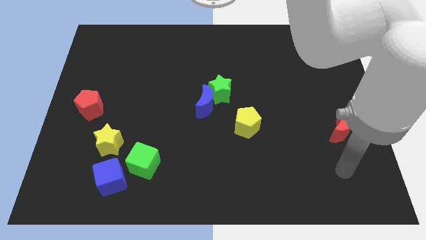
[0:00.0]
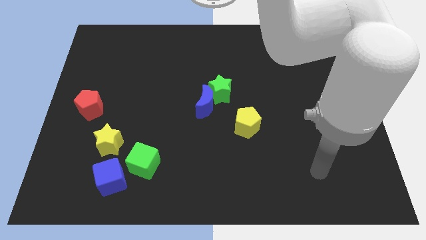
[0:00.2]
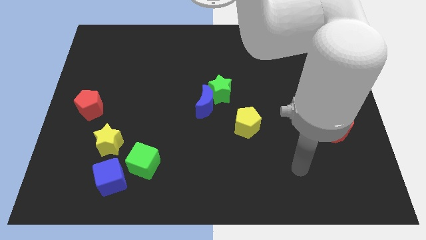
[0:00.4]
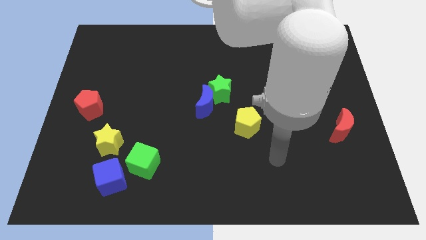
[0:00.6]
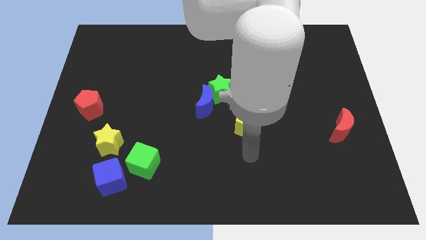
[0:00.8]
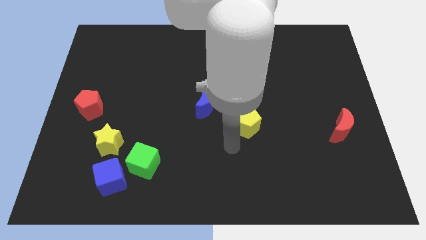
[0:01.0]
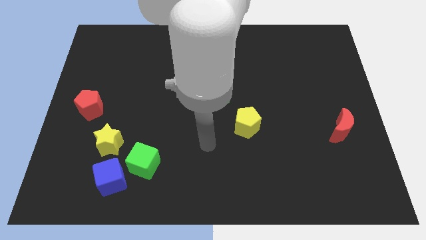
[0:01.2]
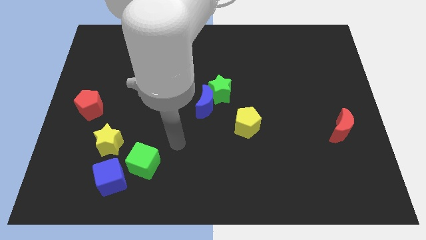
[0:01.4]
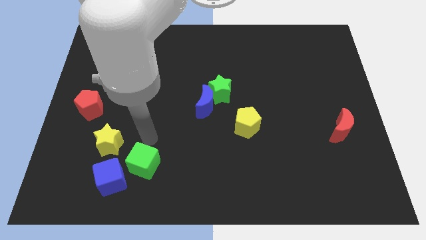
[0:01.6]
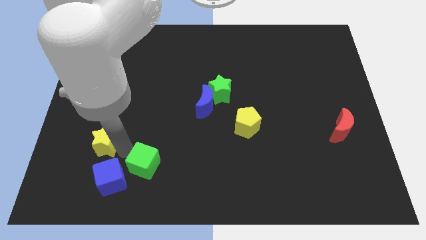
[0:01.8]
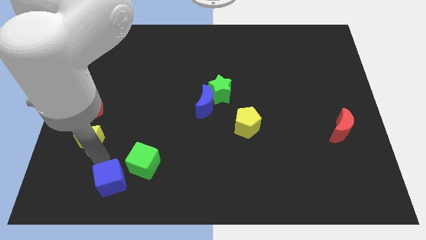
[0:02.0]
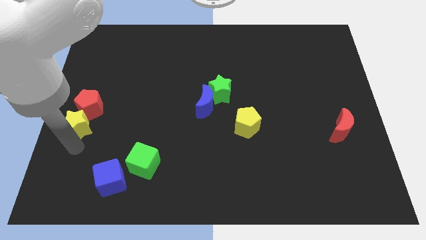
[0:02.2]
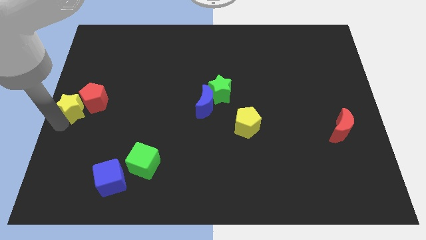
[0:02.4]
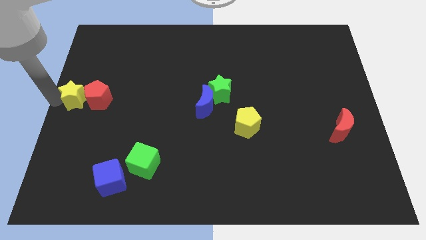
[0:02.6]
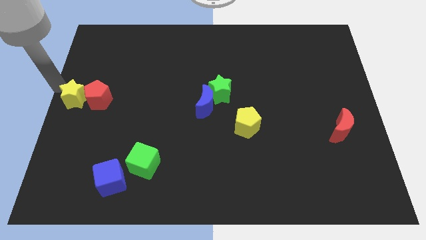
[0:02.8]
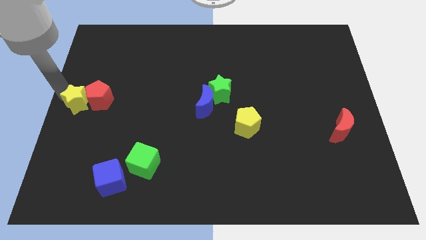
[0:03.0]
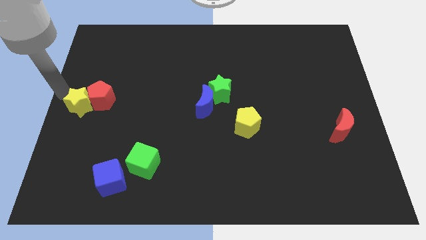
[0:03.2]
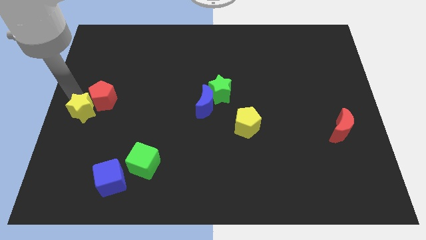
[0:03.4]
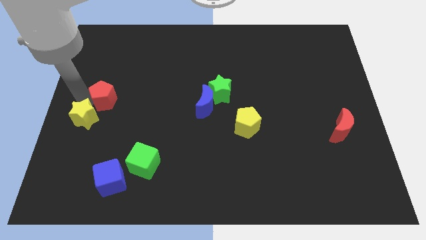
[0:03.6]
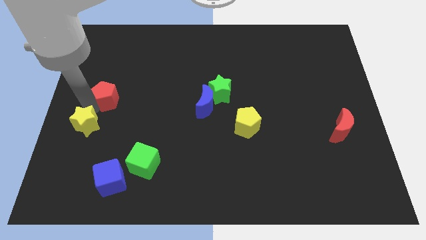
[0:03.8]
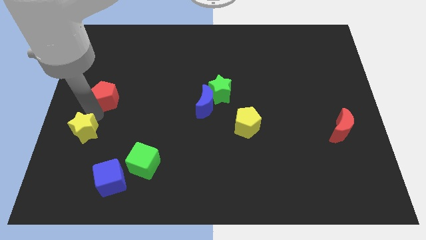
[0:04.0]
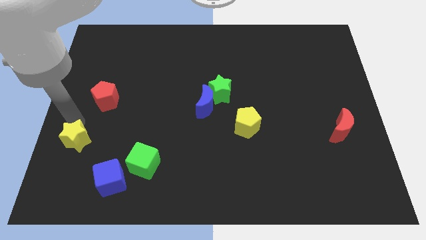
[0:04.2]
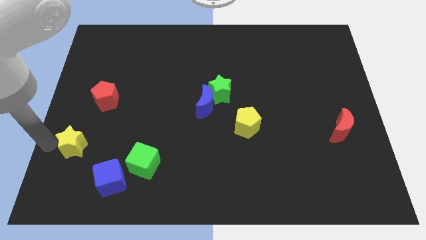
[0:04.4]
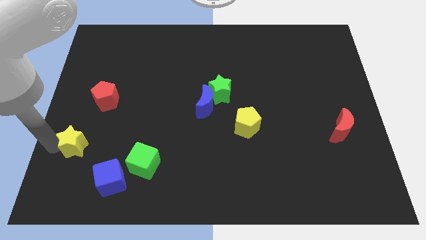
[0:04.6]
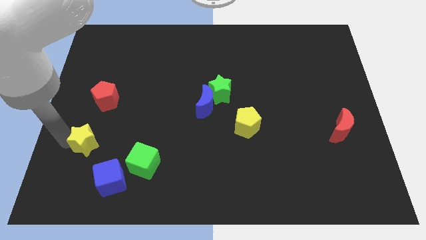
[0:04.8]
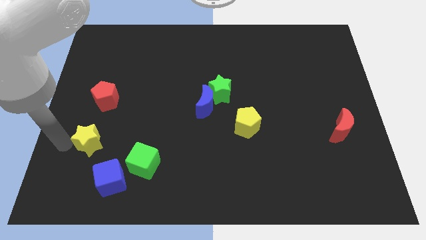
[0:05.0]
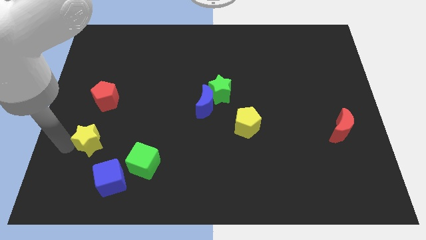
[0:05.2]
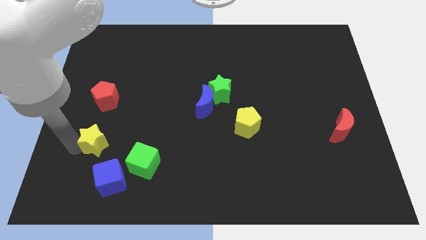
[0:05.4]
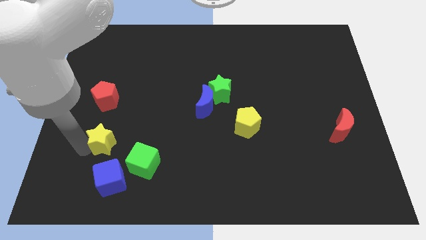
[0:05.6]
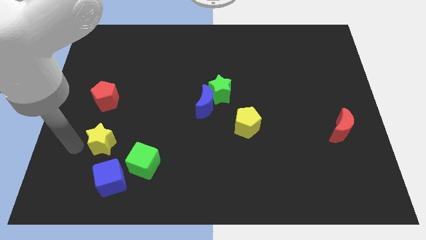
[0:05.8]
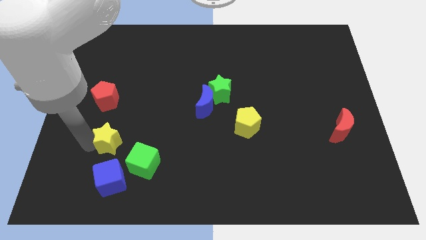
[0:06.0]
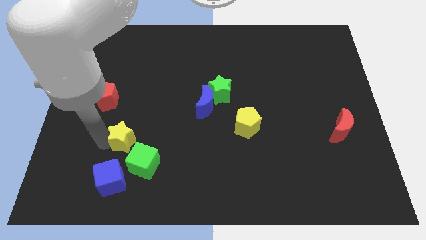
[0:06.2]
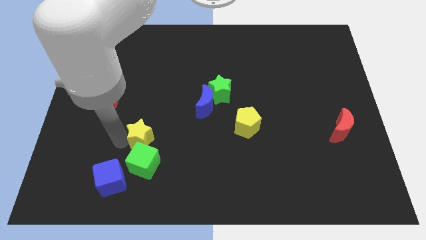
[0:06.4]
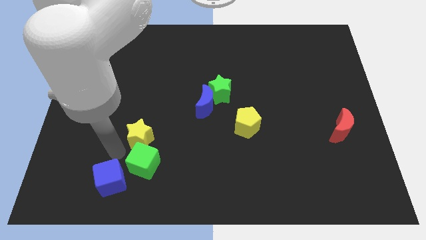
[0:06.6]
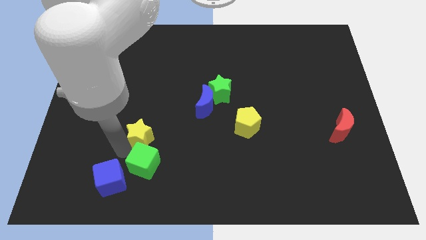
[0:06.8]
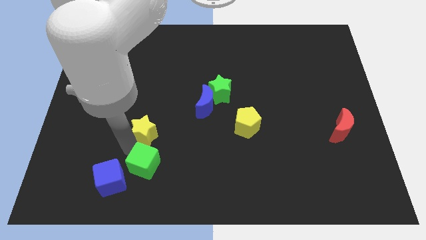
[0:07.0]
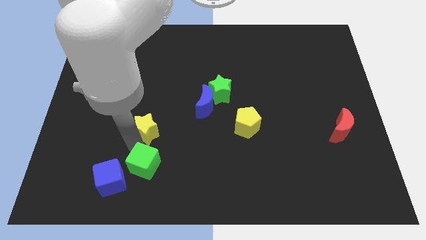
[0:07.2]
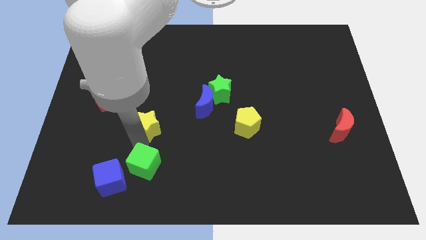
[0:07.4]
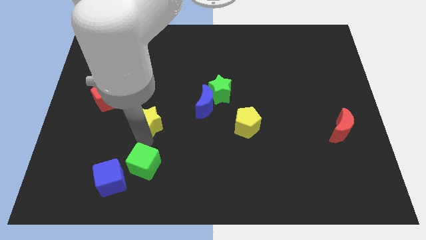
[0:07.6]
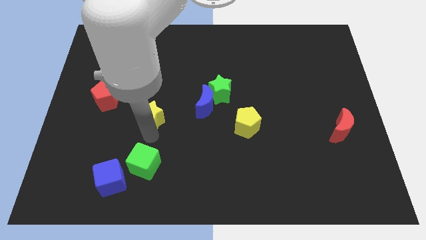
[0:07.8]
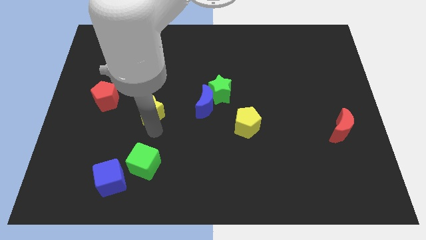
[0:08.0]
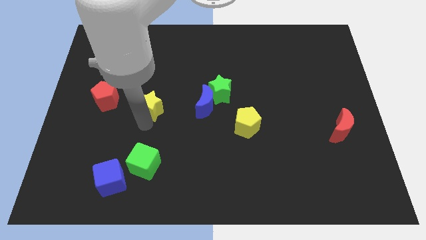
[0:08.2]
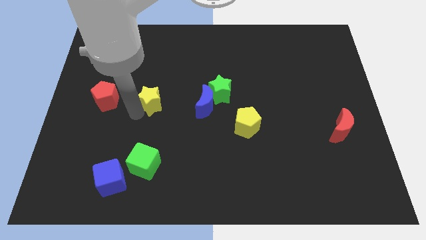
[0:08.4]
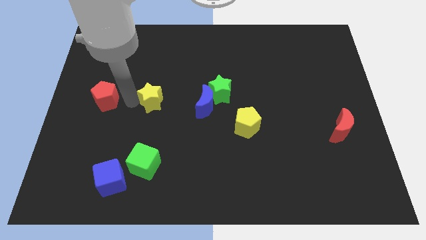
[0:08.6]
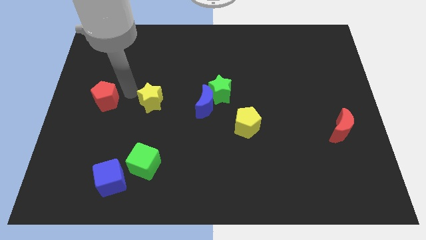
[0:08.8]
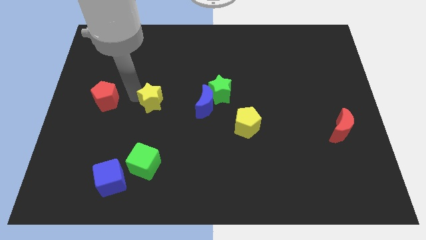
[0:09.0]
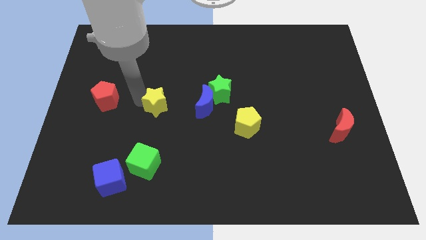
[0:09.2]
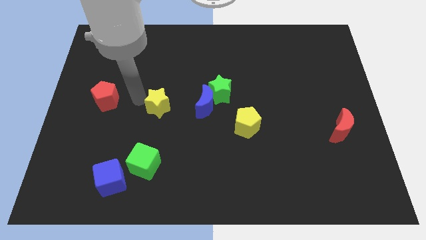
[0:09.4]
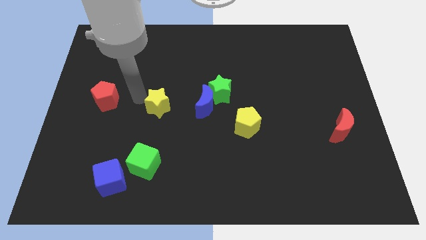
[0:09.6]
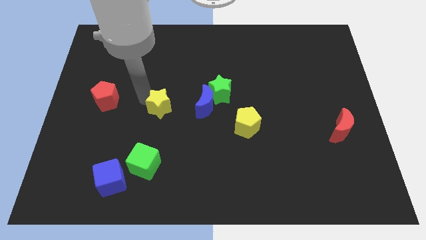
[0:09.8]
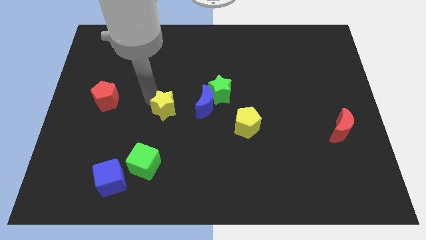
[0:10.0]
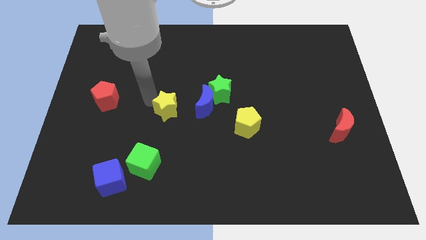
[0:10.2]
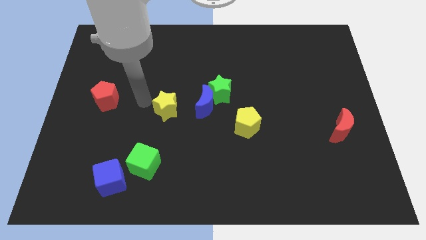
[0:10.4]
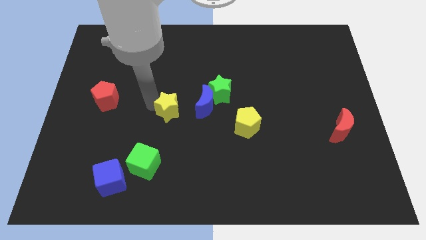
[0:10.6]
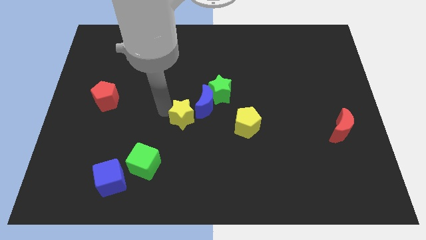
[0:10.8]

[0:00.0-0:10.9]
move the yellow star to the blue moon

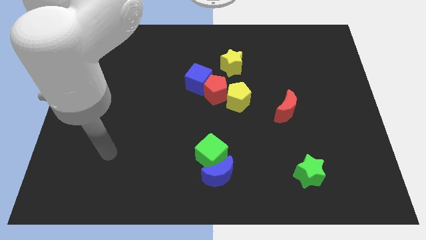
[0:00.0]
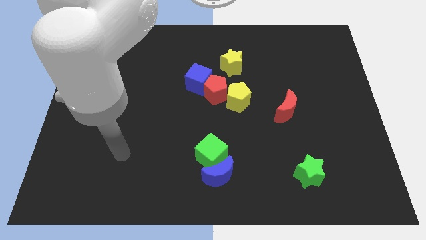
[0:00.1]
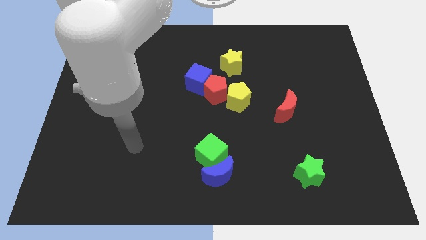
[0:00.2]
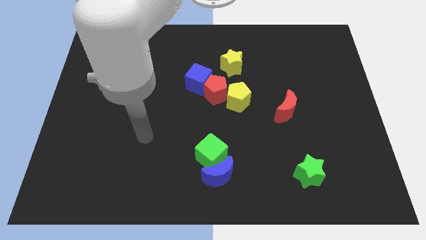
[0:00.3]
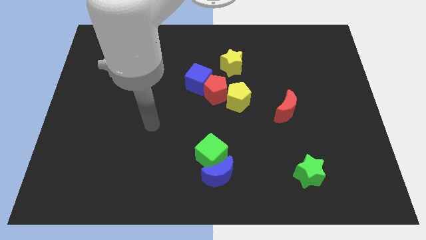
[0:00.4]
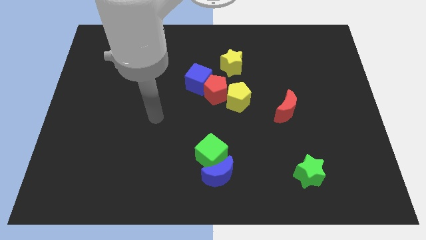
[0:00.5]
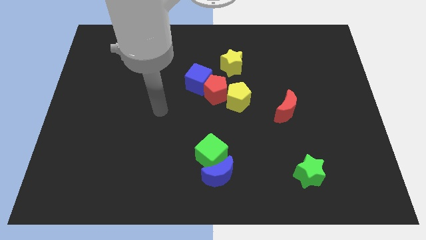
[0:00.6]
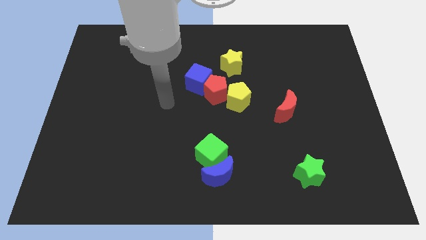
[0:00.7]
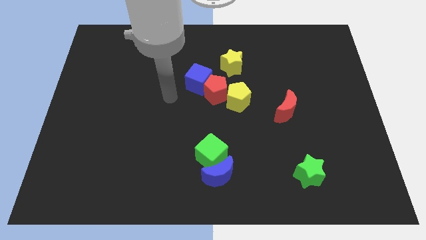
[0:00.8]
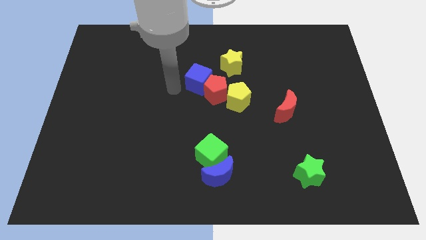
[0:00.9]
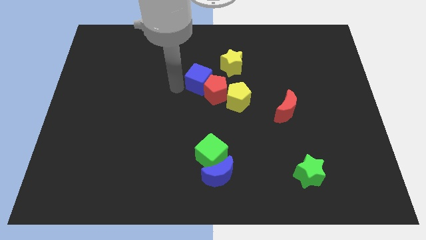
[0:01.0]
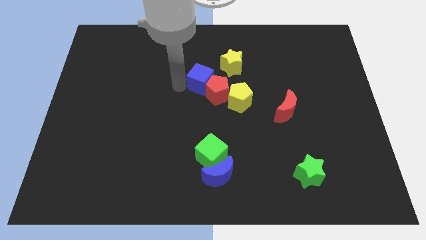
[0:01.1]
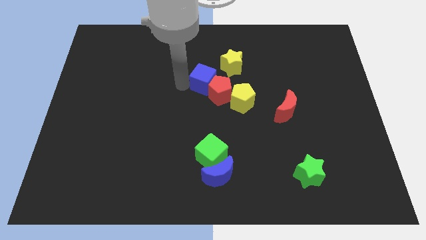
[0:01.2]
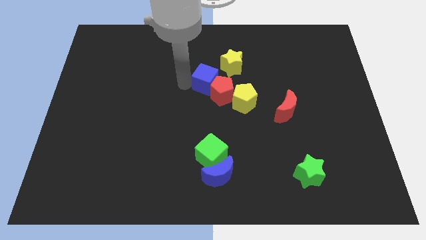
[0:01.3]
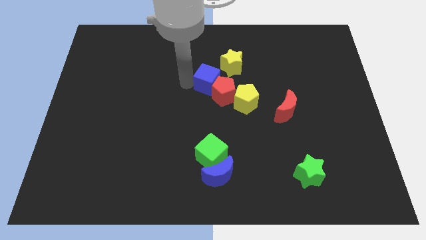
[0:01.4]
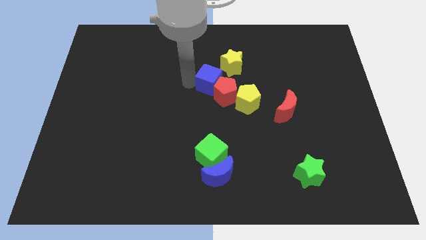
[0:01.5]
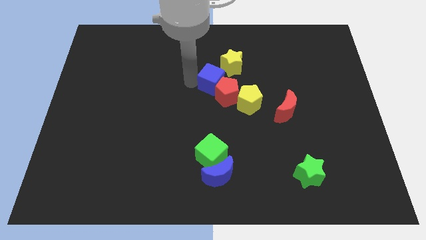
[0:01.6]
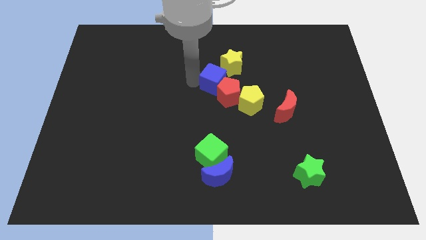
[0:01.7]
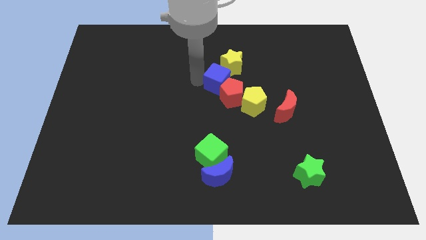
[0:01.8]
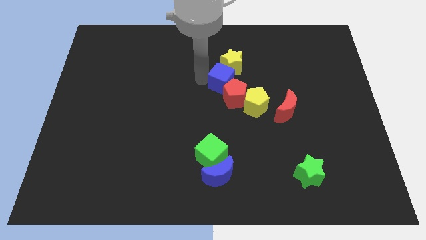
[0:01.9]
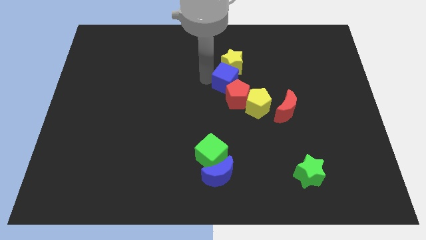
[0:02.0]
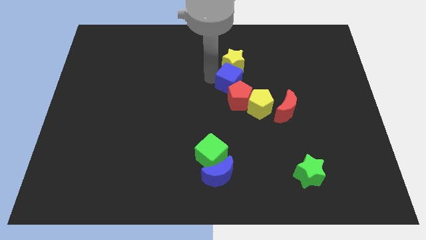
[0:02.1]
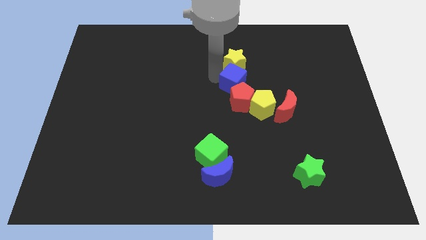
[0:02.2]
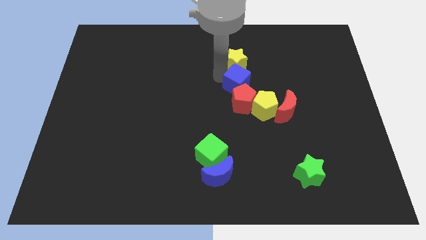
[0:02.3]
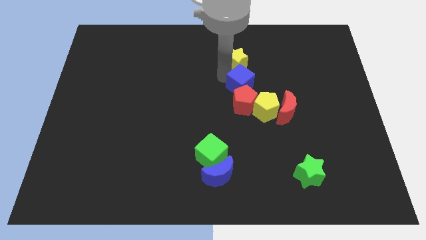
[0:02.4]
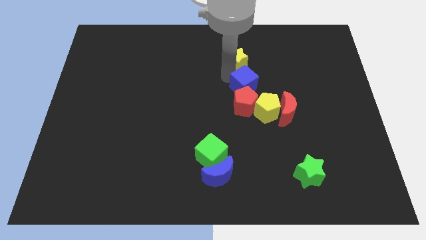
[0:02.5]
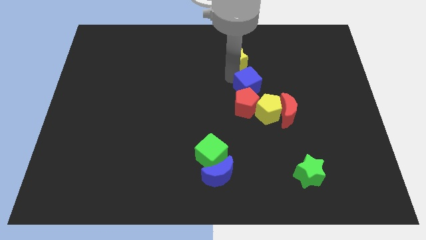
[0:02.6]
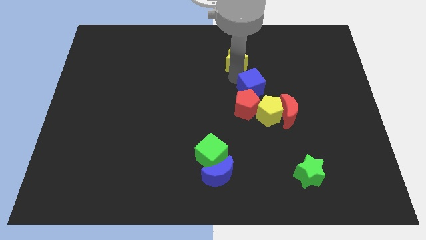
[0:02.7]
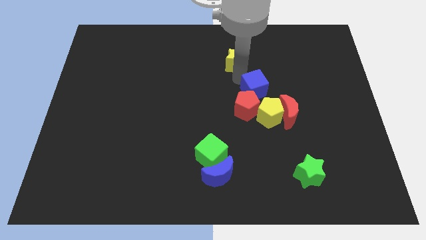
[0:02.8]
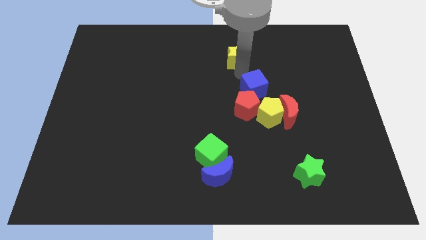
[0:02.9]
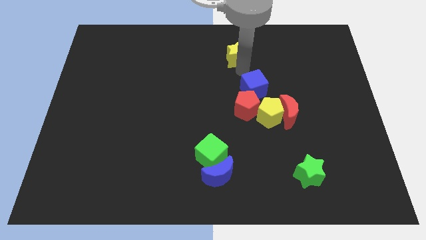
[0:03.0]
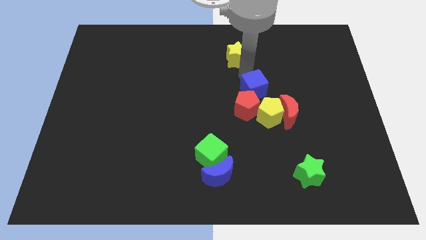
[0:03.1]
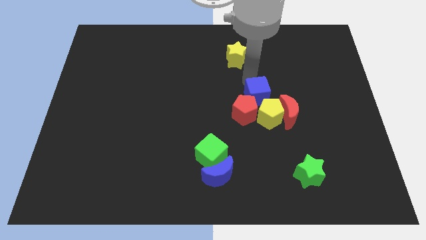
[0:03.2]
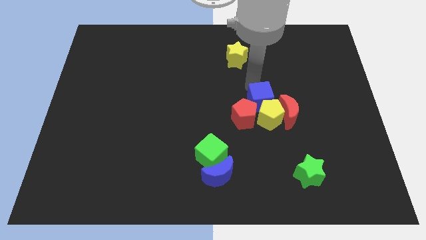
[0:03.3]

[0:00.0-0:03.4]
push the blue cube towards the yellow pentagon
